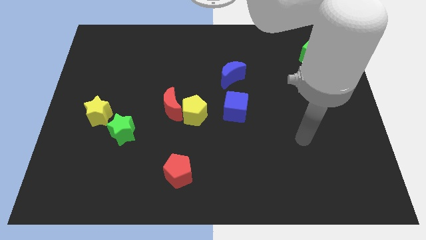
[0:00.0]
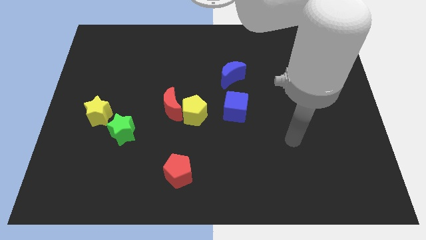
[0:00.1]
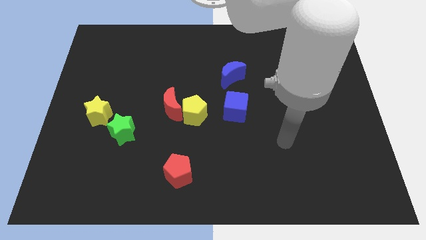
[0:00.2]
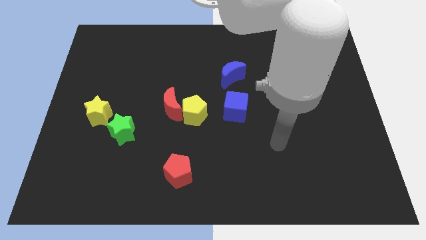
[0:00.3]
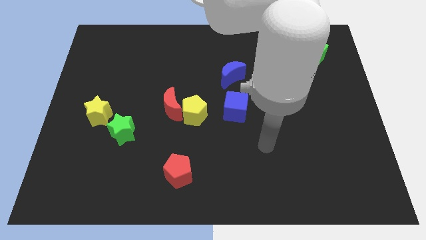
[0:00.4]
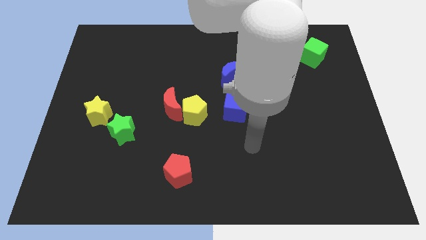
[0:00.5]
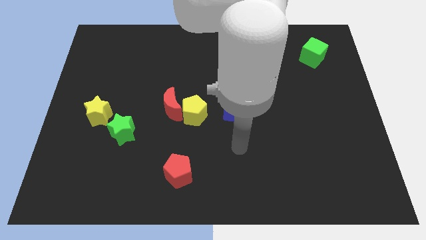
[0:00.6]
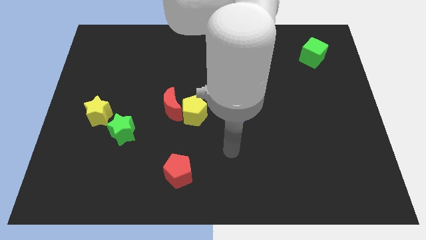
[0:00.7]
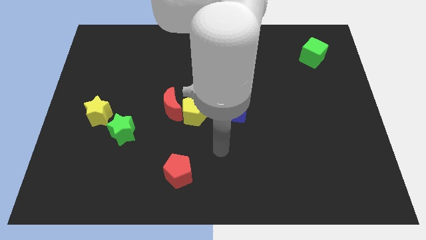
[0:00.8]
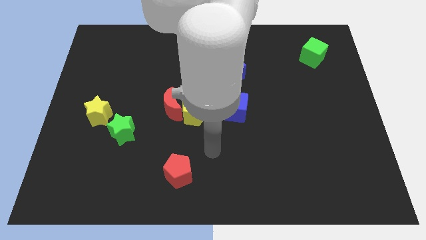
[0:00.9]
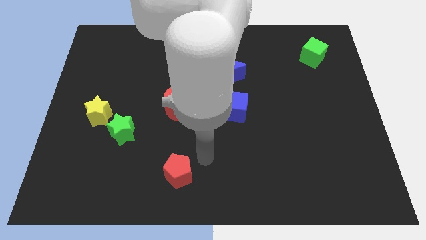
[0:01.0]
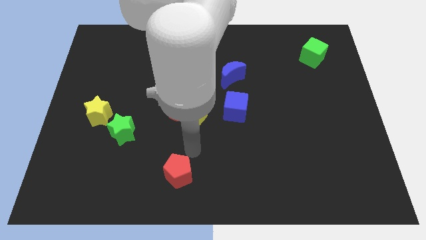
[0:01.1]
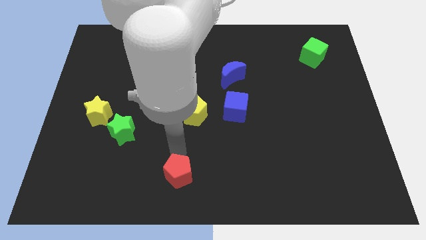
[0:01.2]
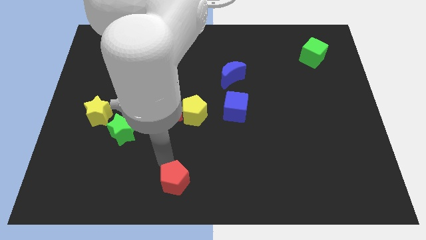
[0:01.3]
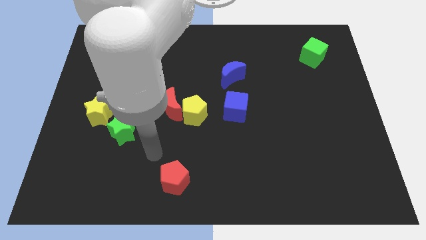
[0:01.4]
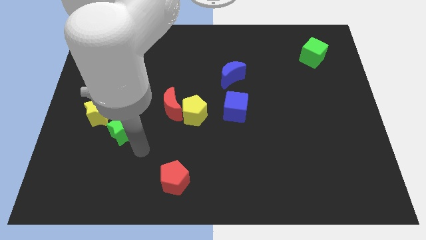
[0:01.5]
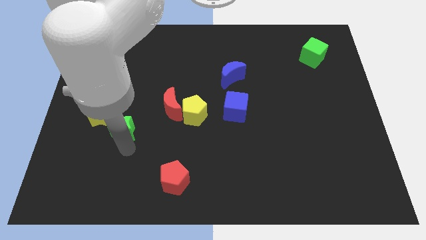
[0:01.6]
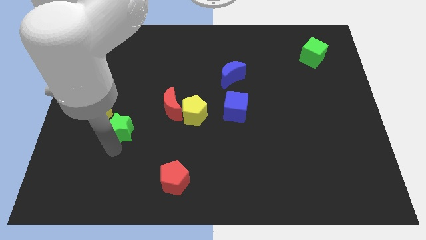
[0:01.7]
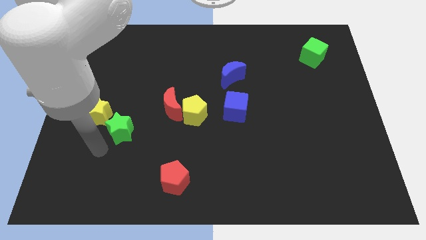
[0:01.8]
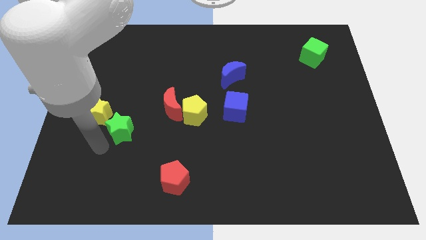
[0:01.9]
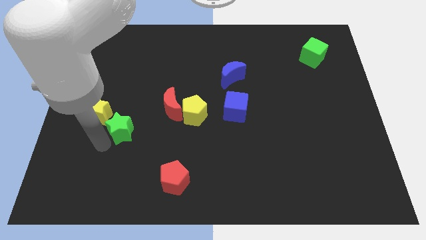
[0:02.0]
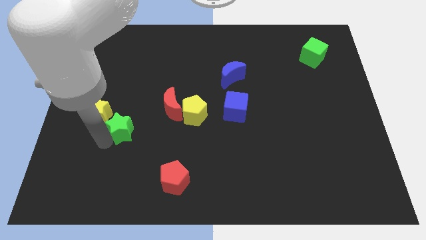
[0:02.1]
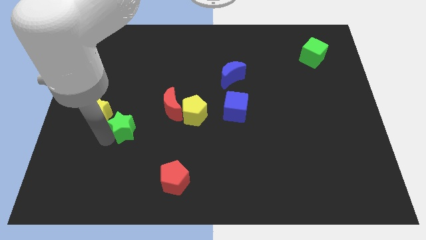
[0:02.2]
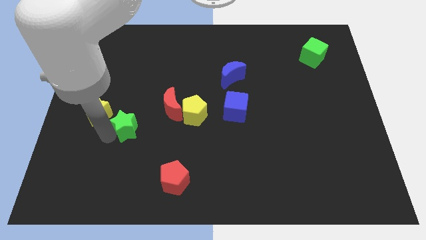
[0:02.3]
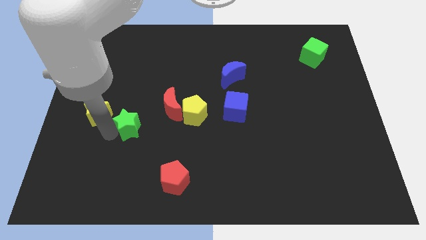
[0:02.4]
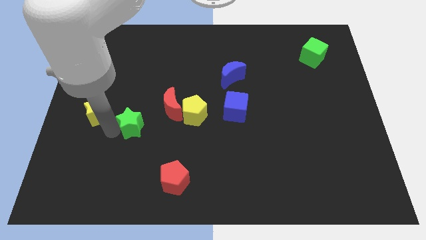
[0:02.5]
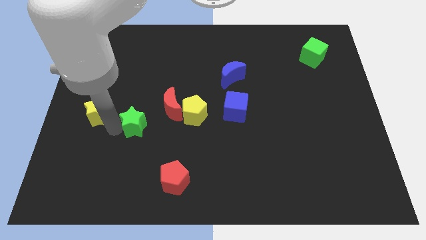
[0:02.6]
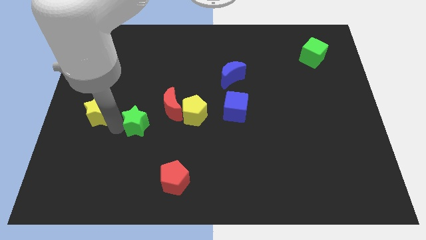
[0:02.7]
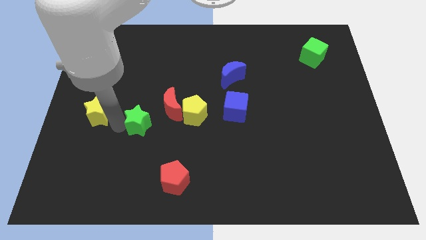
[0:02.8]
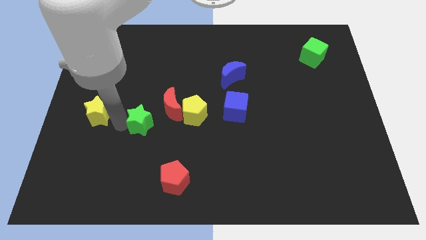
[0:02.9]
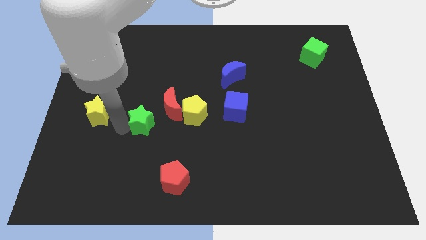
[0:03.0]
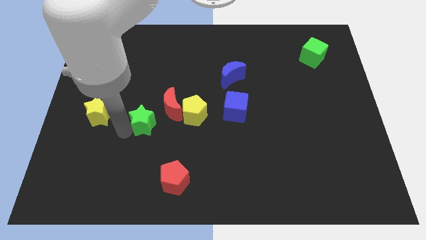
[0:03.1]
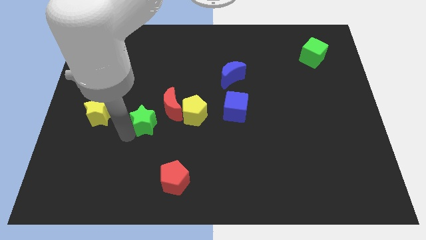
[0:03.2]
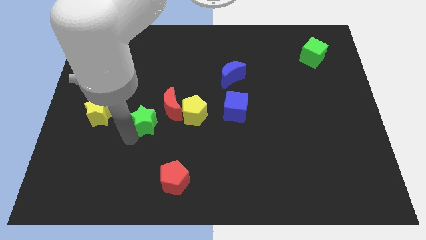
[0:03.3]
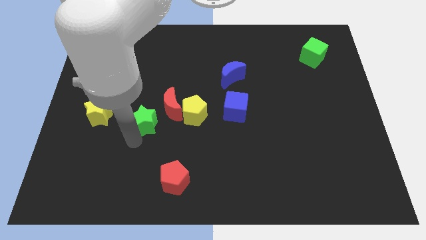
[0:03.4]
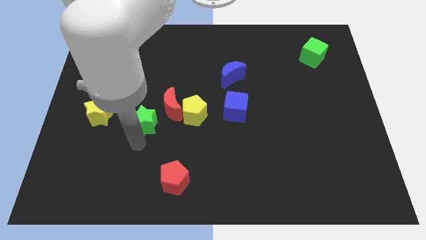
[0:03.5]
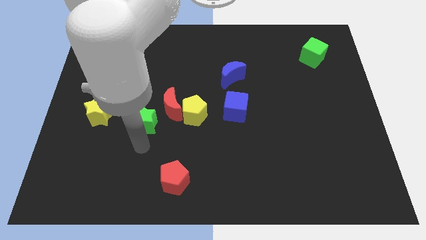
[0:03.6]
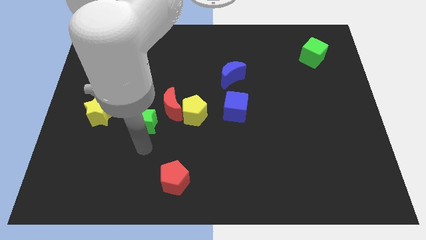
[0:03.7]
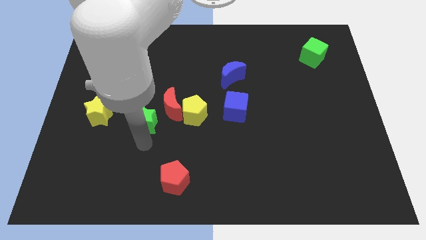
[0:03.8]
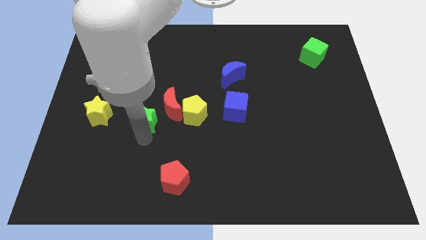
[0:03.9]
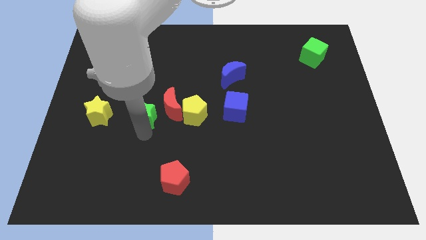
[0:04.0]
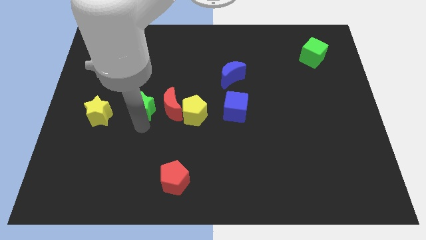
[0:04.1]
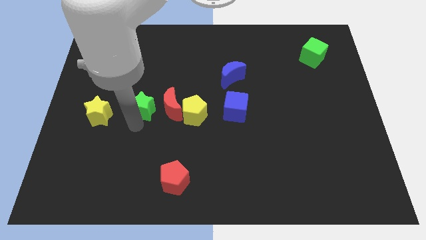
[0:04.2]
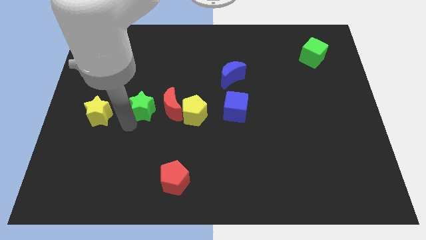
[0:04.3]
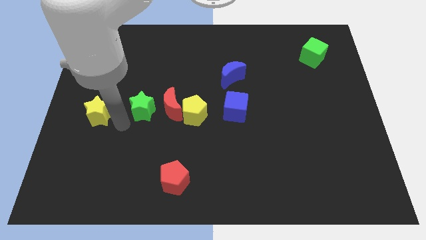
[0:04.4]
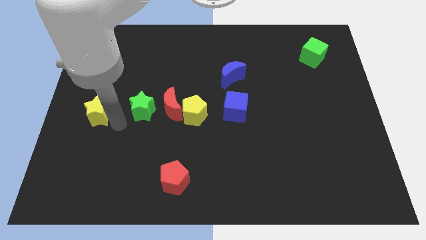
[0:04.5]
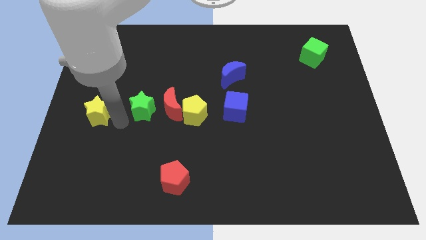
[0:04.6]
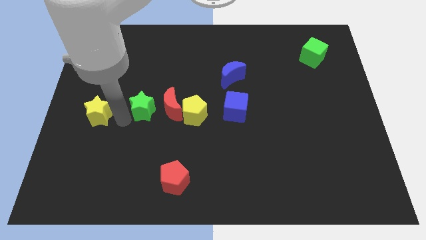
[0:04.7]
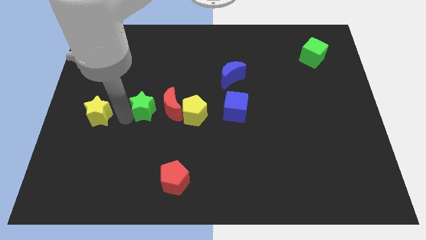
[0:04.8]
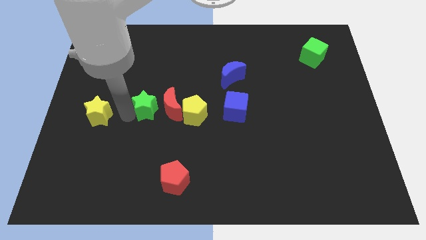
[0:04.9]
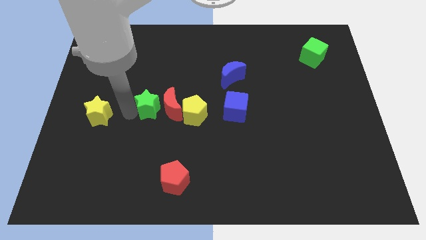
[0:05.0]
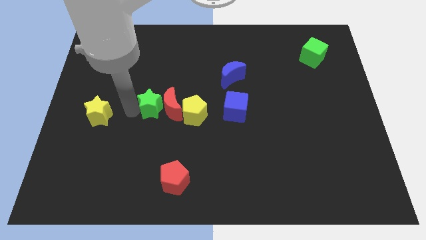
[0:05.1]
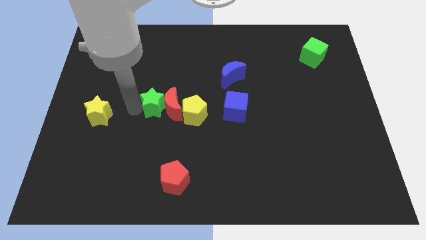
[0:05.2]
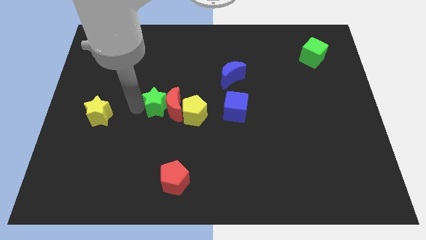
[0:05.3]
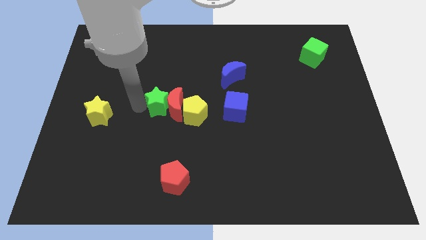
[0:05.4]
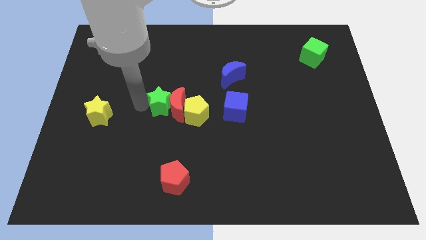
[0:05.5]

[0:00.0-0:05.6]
put the green star to the middle
